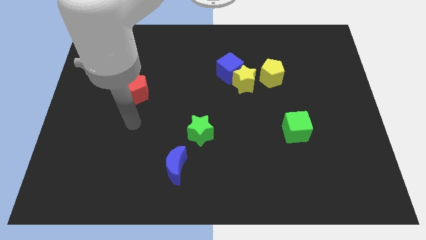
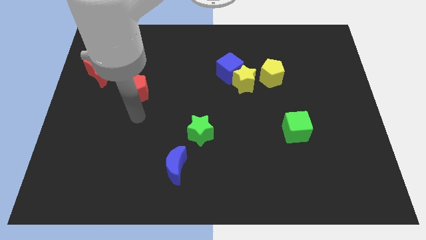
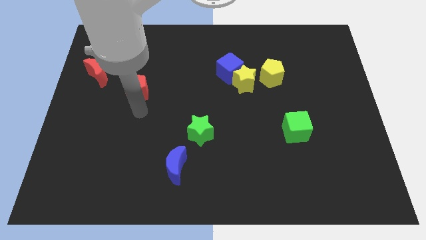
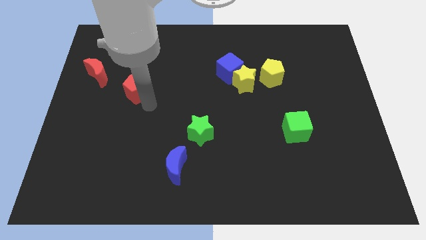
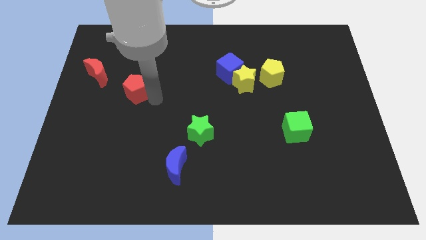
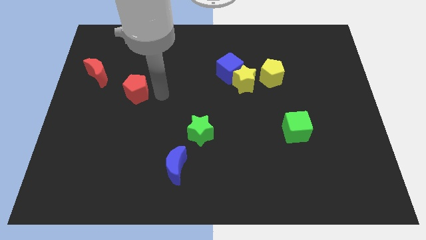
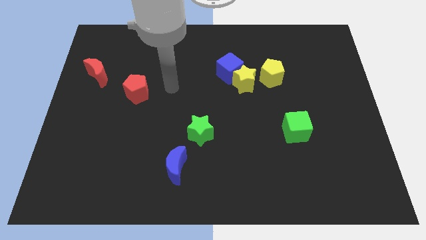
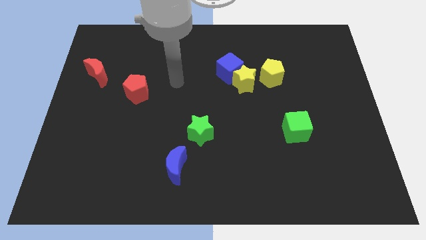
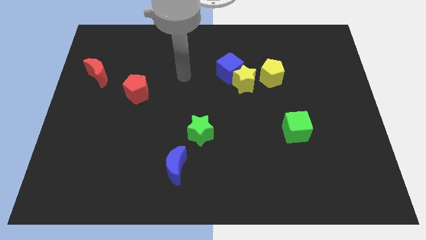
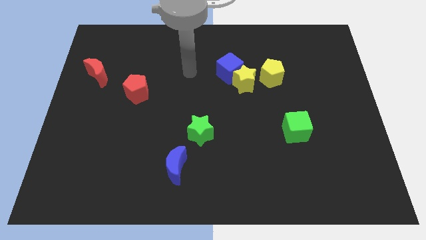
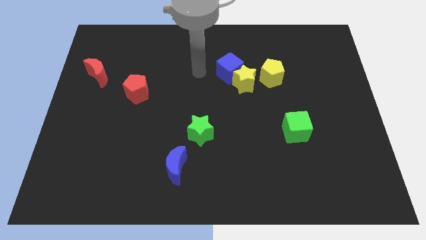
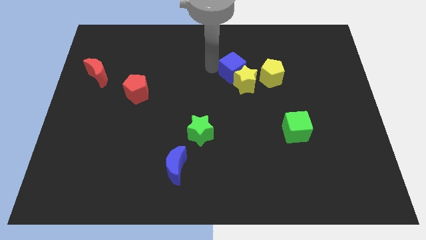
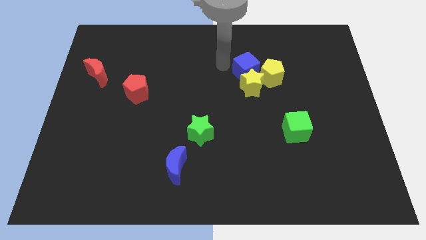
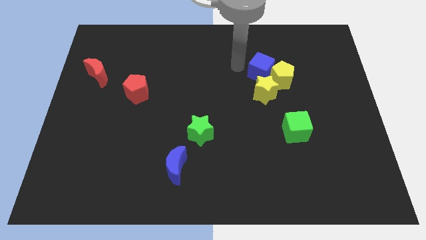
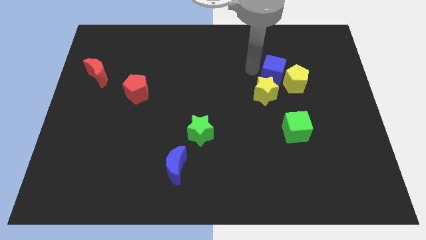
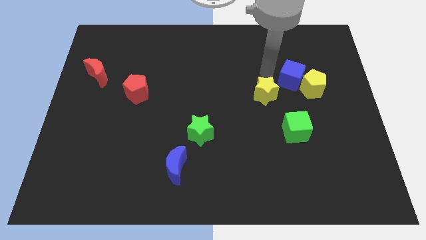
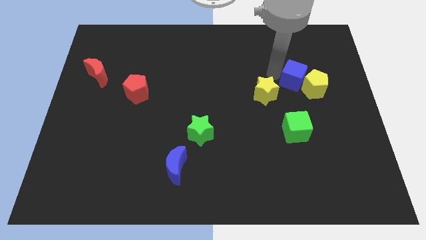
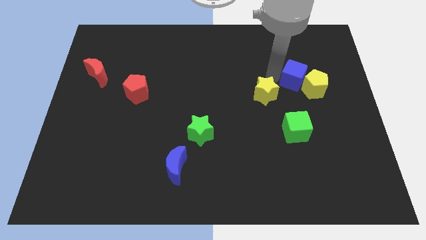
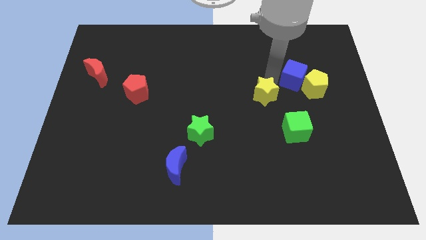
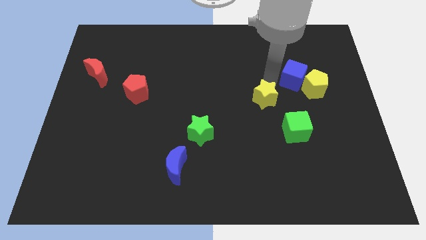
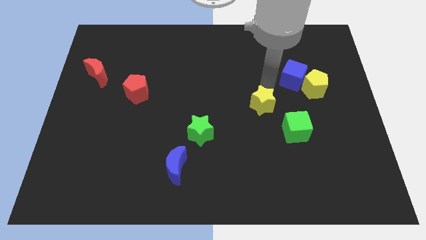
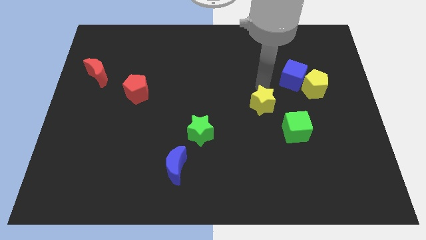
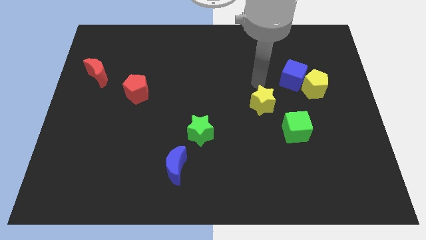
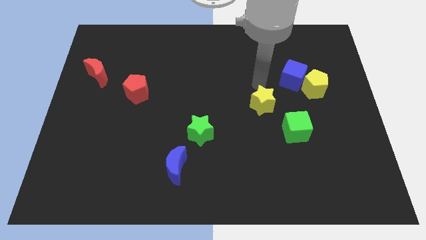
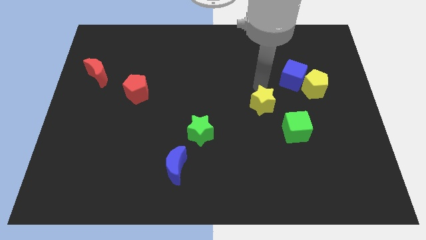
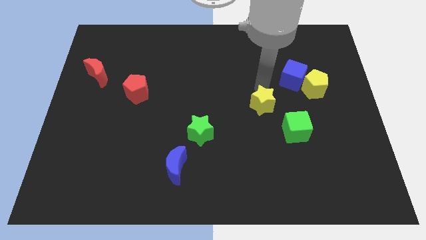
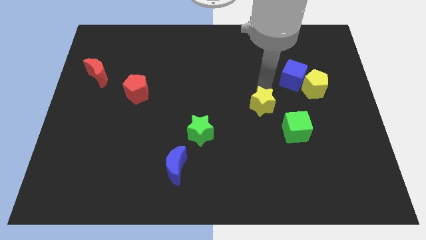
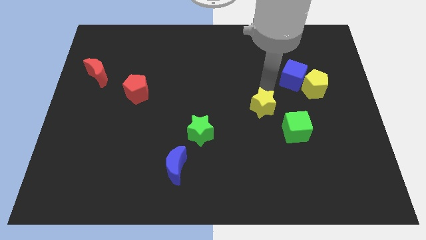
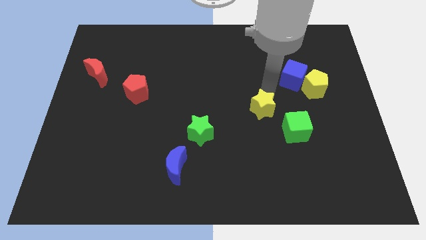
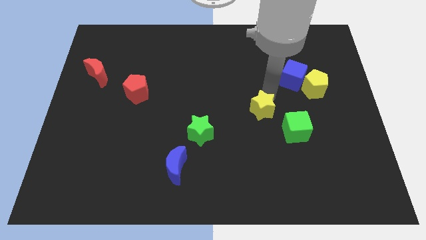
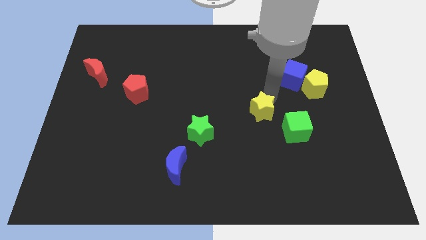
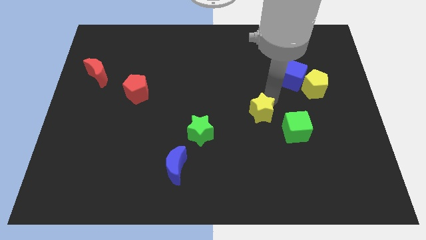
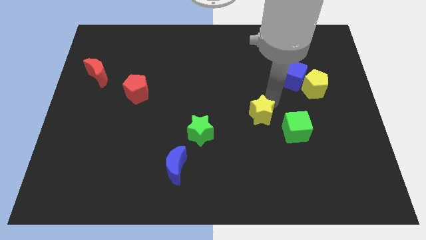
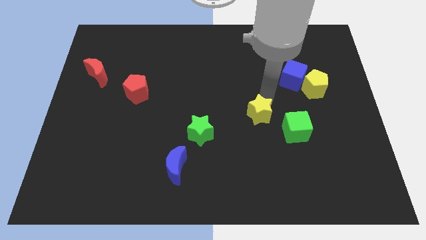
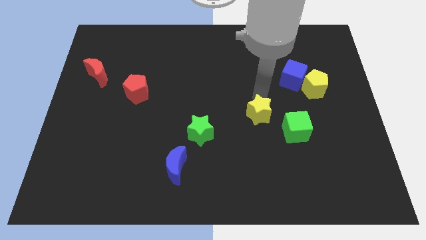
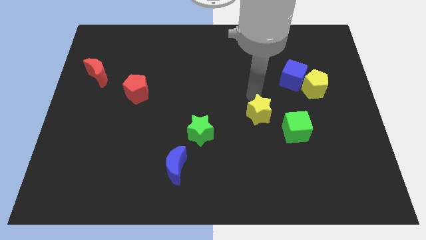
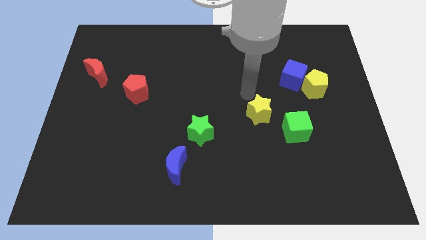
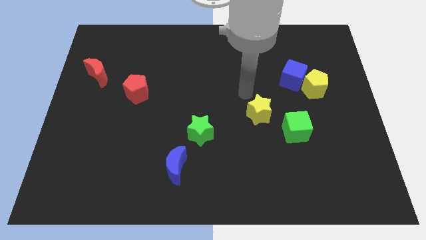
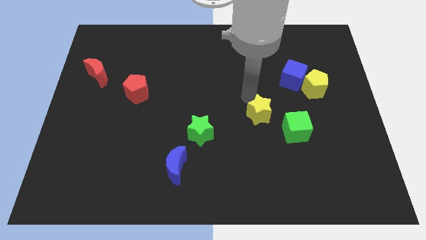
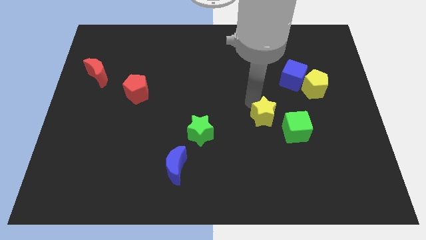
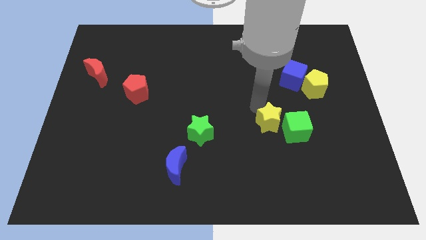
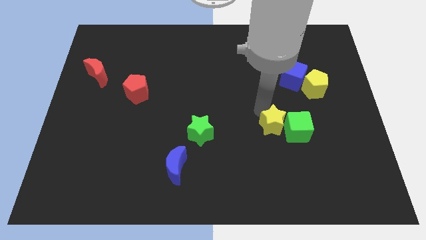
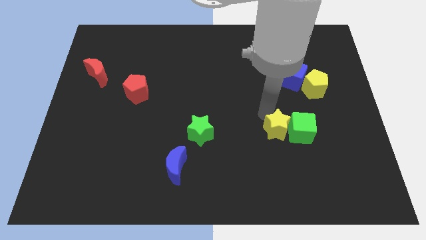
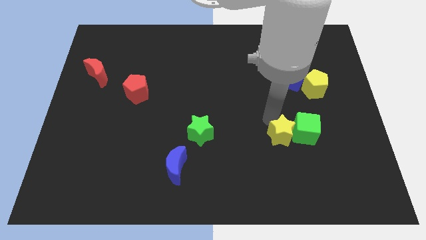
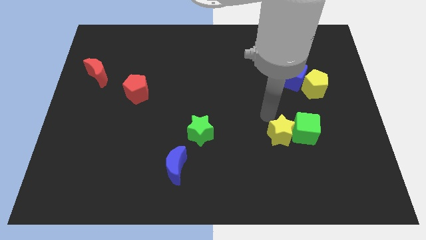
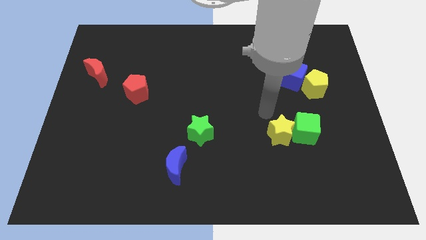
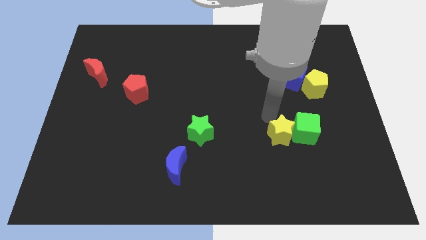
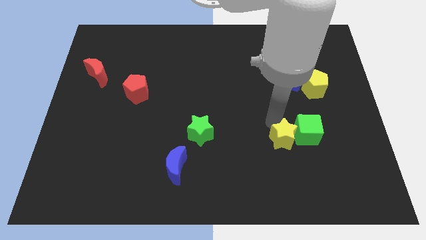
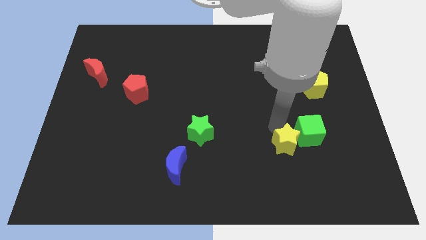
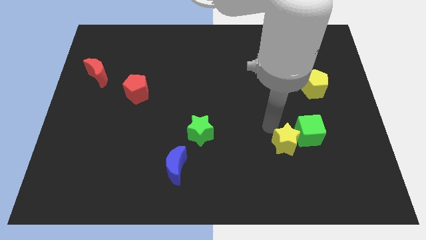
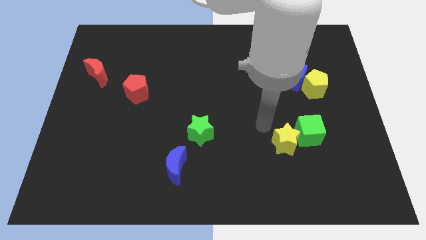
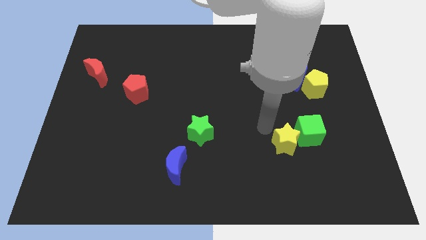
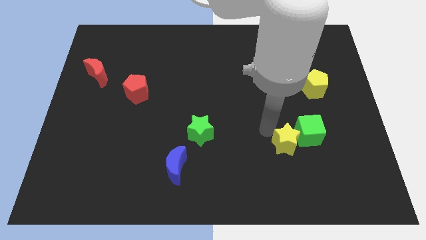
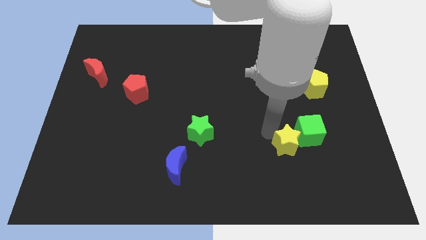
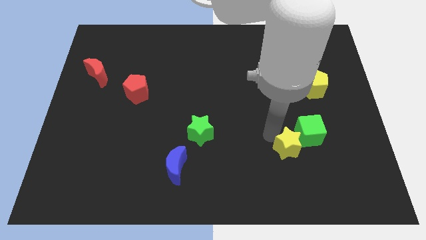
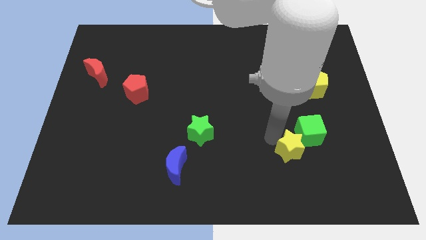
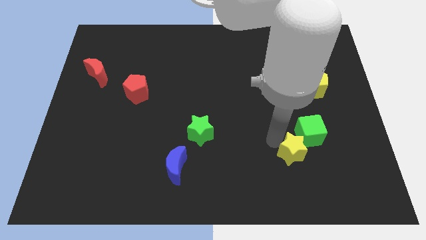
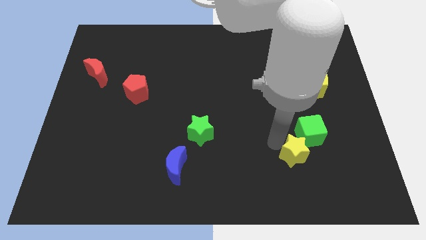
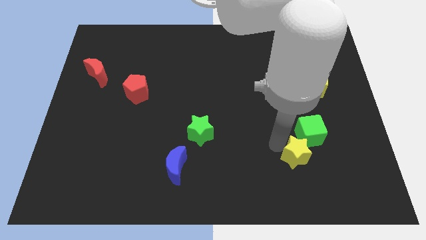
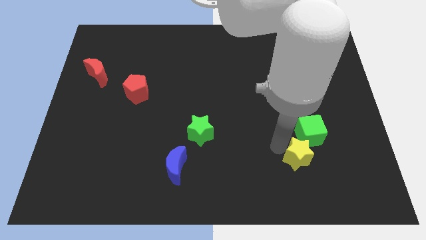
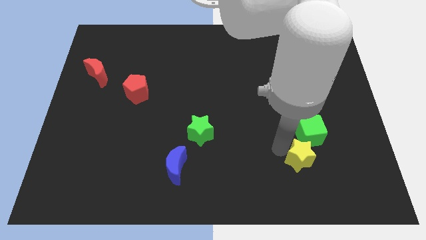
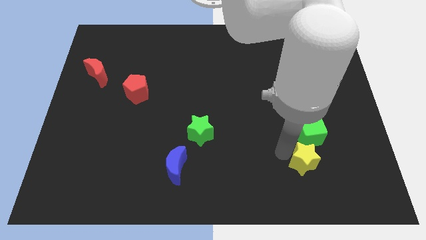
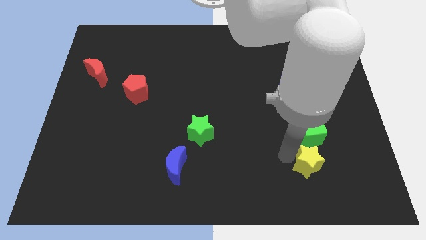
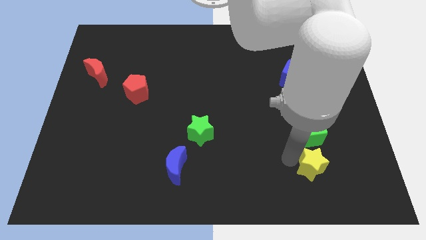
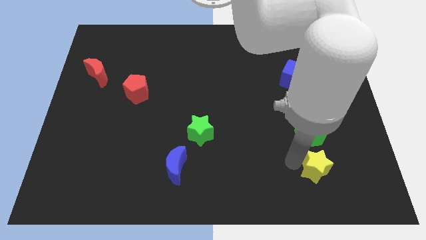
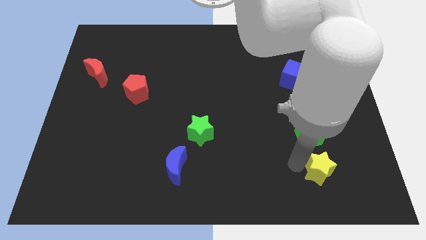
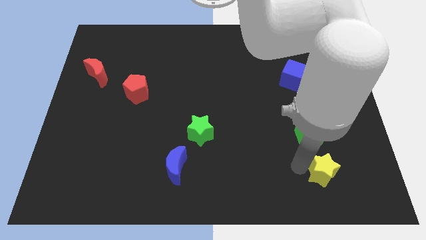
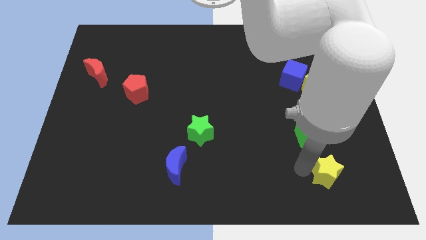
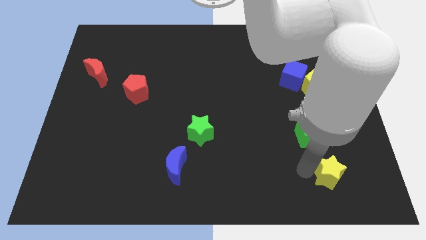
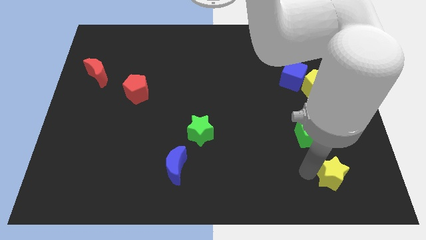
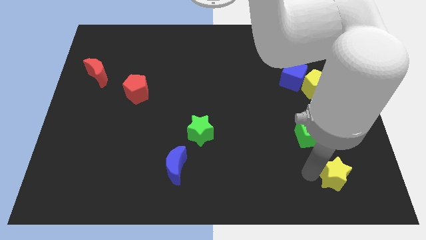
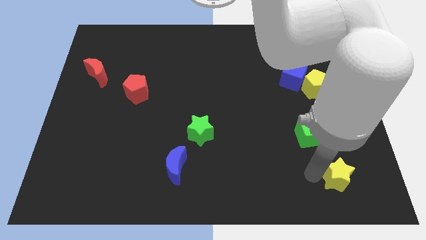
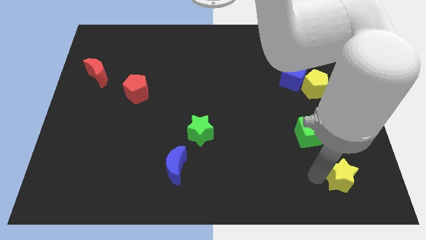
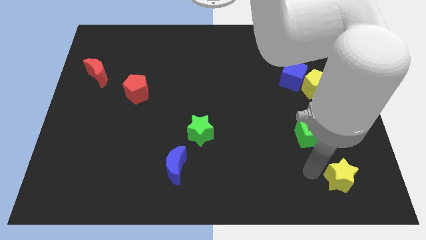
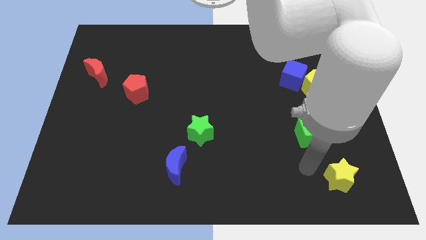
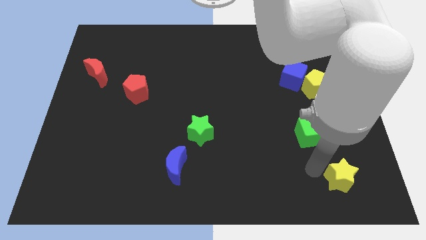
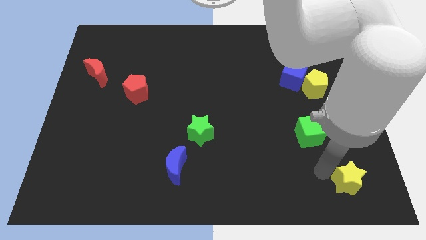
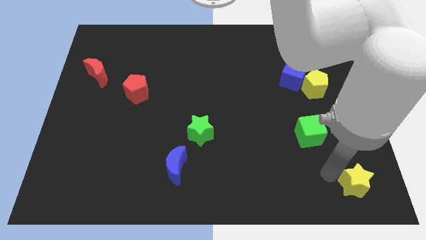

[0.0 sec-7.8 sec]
slide the yellow star to the bottom right
